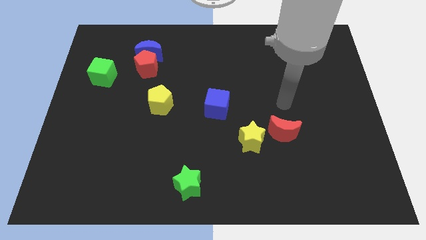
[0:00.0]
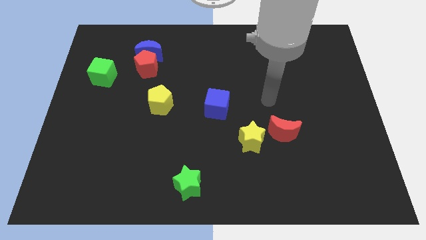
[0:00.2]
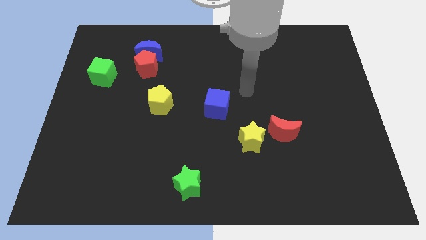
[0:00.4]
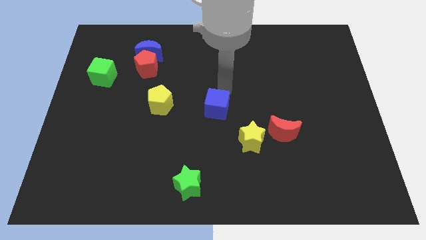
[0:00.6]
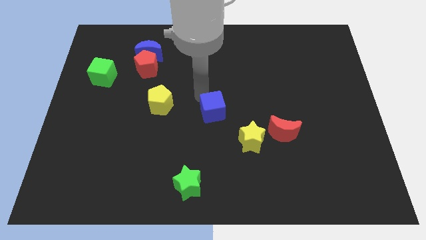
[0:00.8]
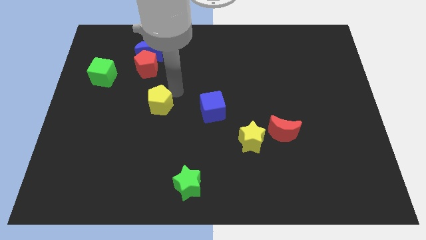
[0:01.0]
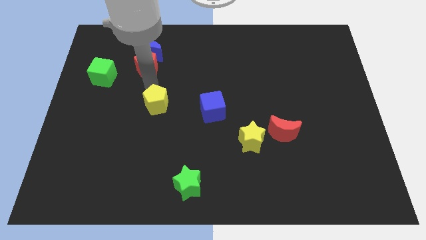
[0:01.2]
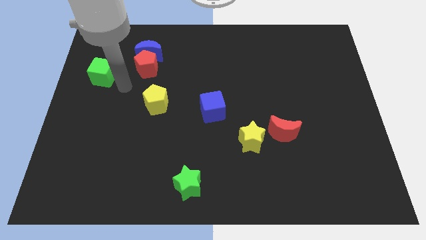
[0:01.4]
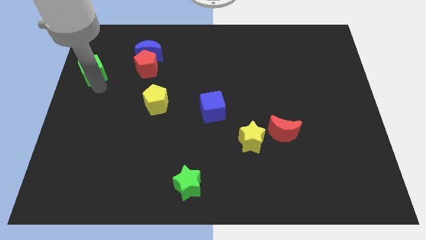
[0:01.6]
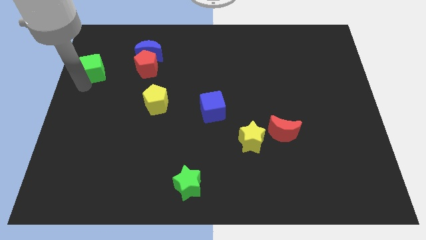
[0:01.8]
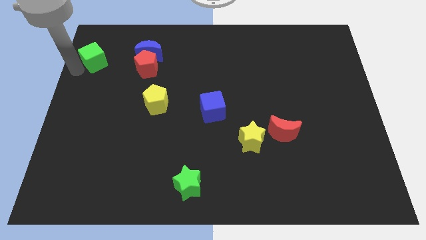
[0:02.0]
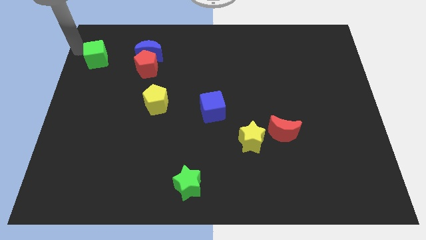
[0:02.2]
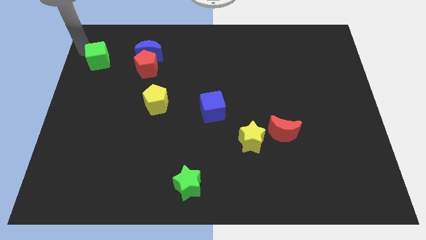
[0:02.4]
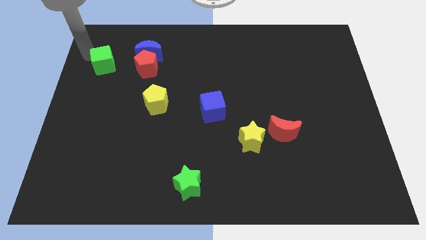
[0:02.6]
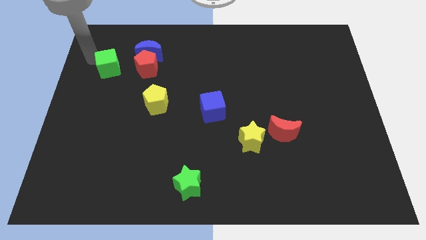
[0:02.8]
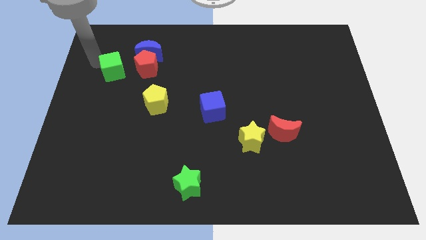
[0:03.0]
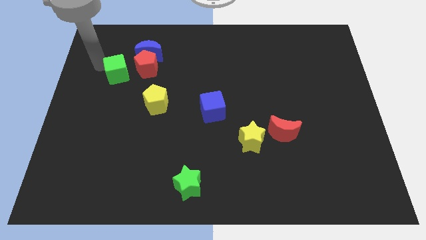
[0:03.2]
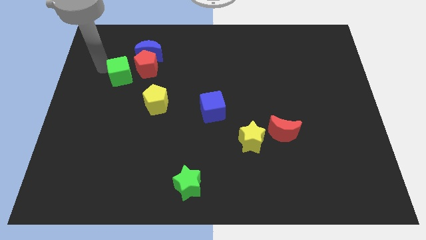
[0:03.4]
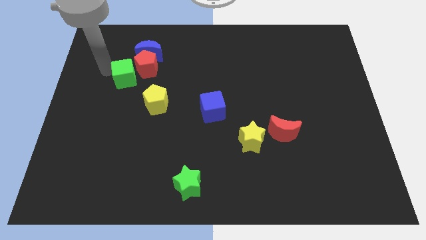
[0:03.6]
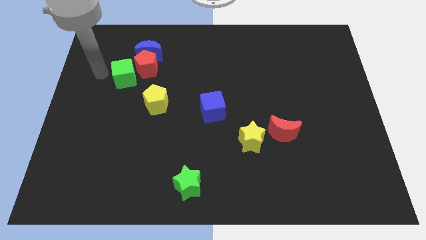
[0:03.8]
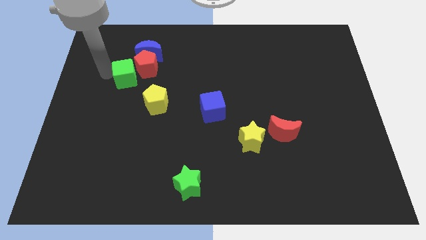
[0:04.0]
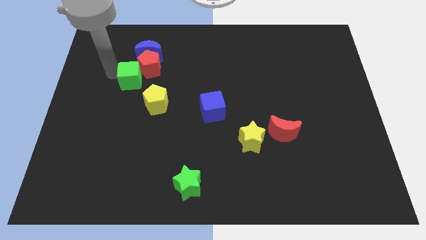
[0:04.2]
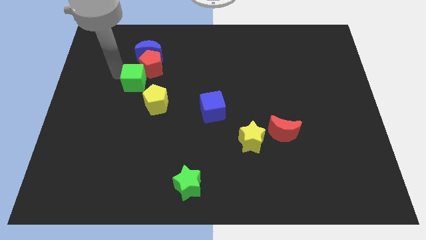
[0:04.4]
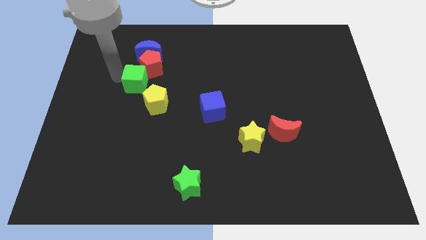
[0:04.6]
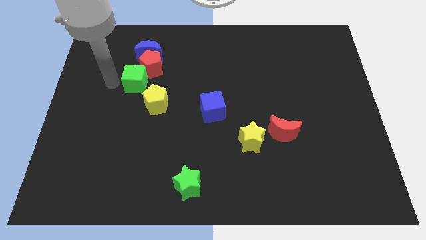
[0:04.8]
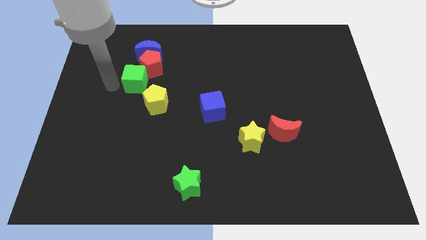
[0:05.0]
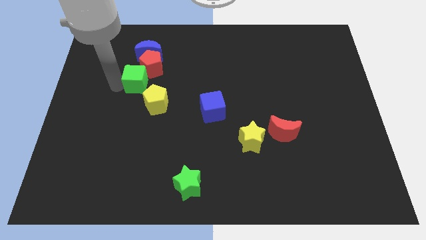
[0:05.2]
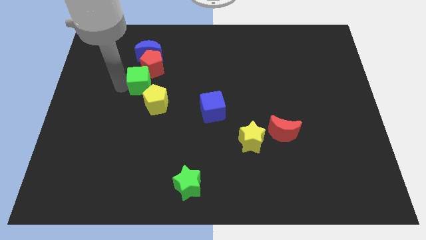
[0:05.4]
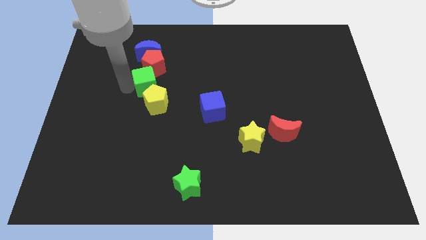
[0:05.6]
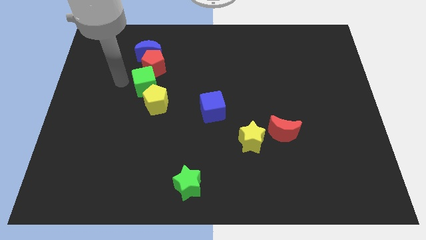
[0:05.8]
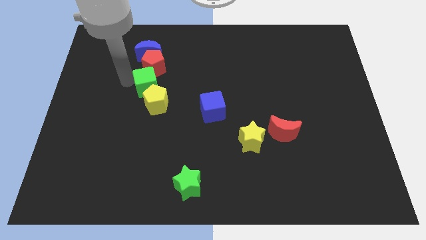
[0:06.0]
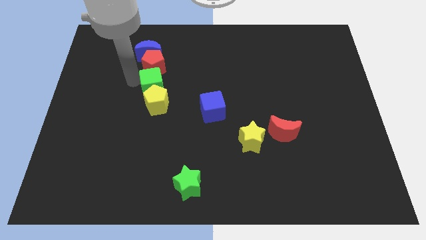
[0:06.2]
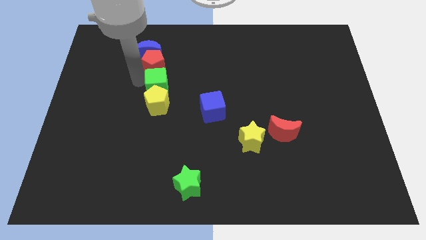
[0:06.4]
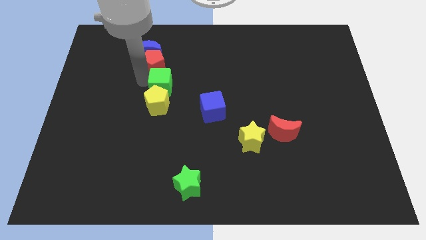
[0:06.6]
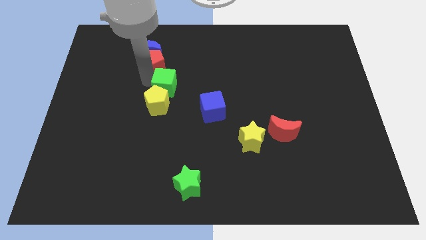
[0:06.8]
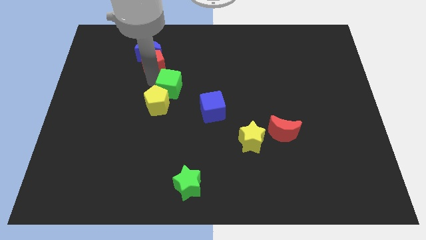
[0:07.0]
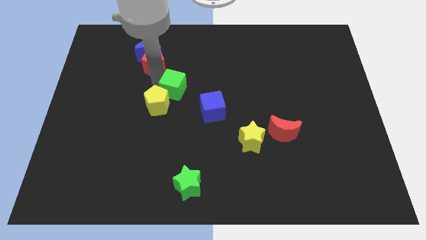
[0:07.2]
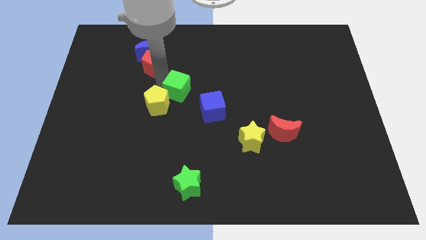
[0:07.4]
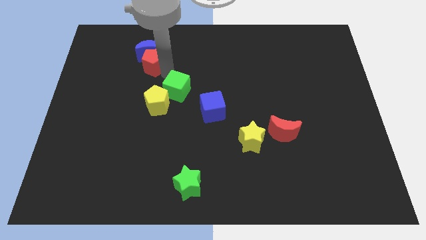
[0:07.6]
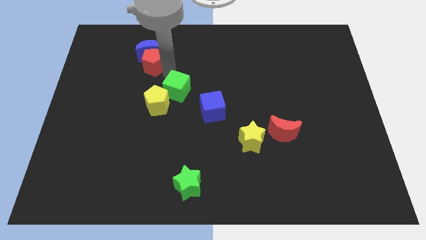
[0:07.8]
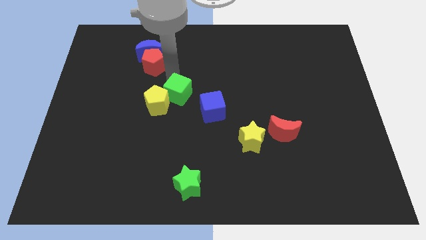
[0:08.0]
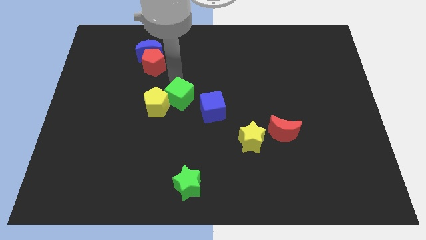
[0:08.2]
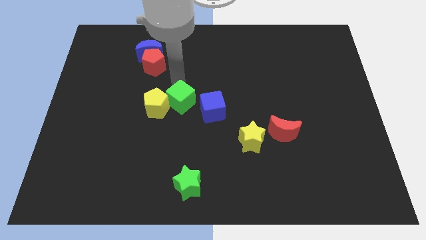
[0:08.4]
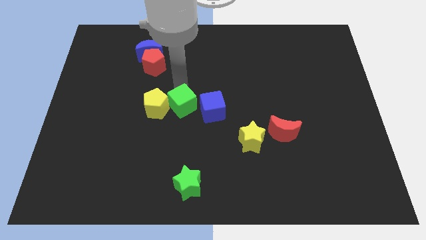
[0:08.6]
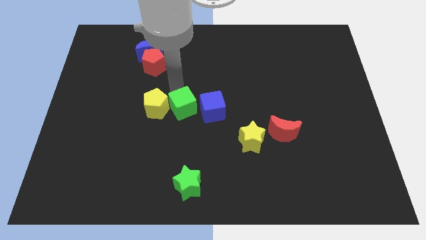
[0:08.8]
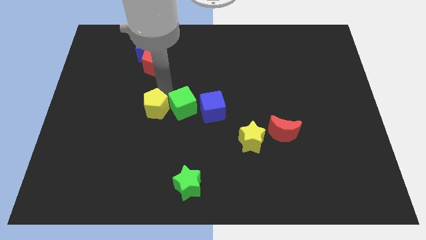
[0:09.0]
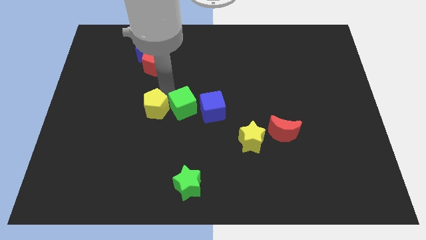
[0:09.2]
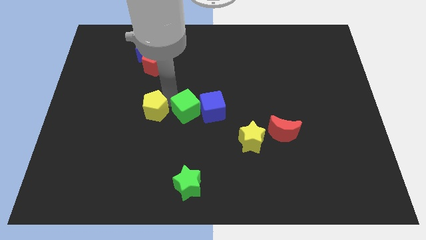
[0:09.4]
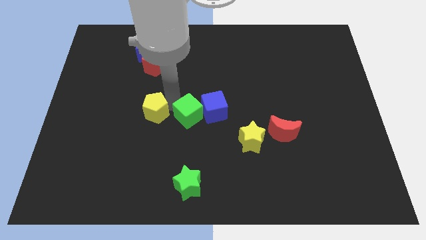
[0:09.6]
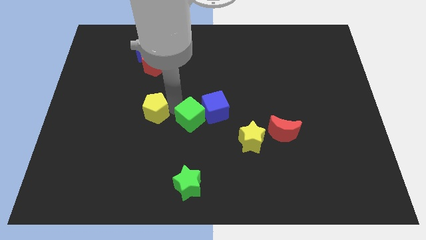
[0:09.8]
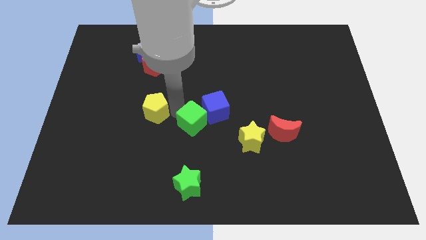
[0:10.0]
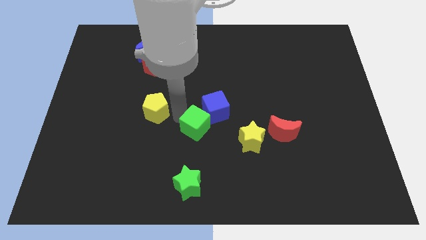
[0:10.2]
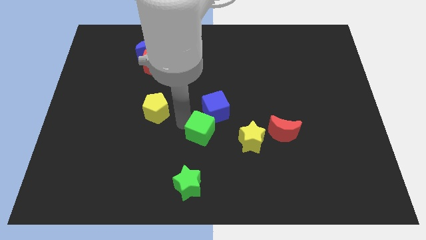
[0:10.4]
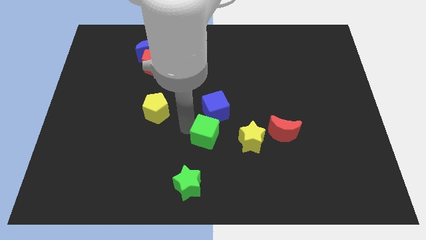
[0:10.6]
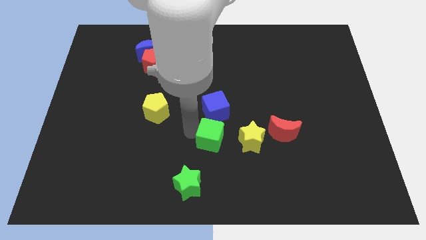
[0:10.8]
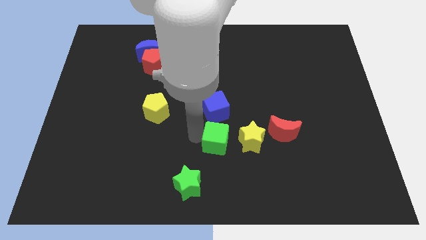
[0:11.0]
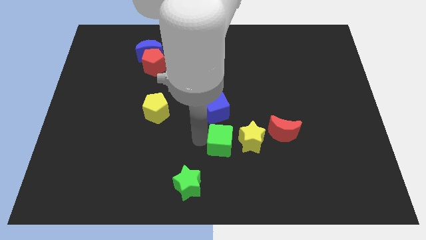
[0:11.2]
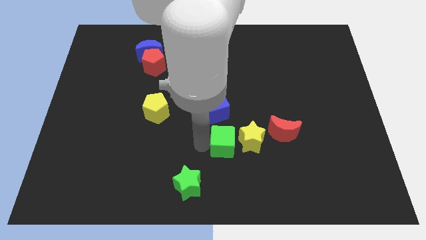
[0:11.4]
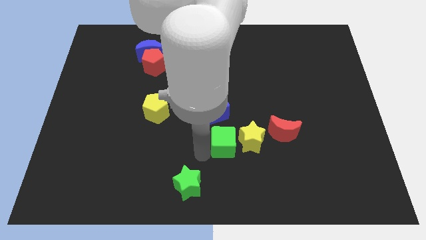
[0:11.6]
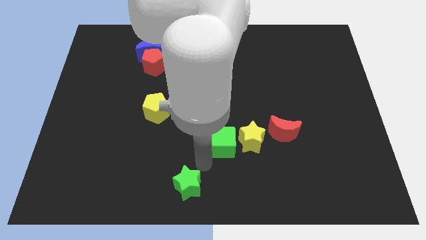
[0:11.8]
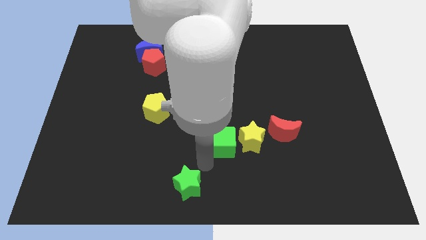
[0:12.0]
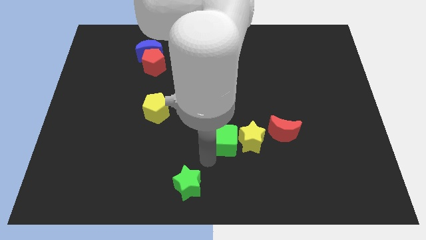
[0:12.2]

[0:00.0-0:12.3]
push the green cube to the yellow star

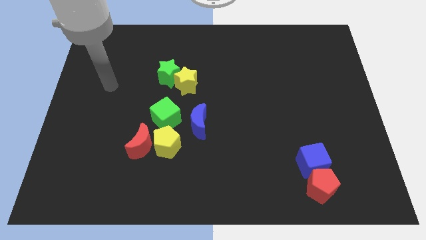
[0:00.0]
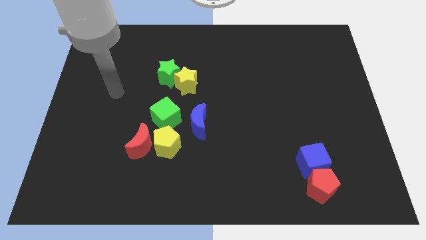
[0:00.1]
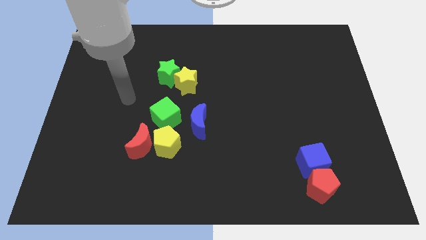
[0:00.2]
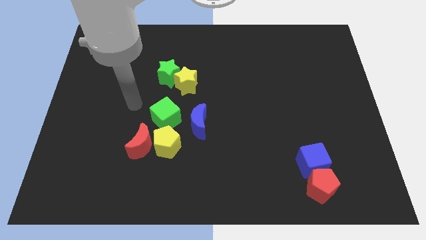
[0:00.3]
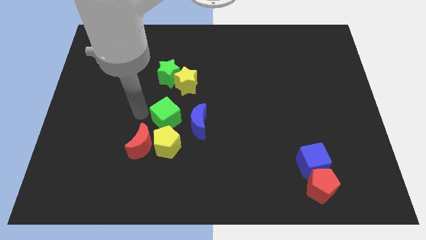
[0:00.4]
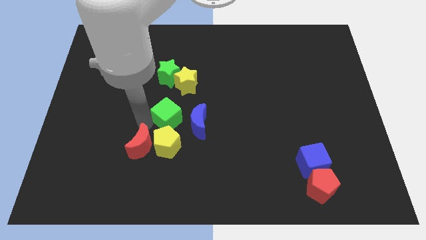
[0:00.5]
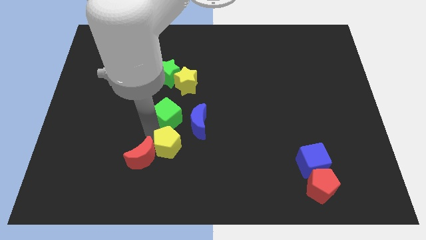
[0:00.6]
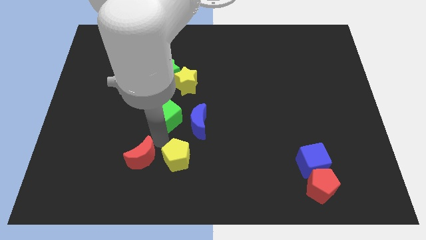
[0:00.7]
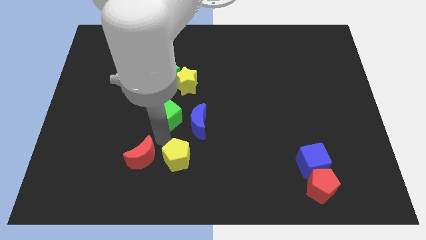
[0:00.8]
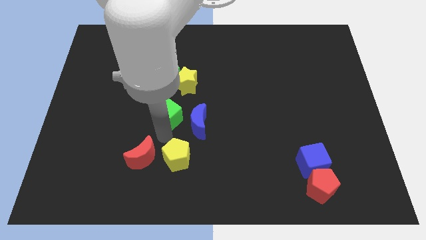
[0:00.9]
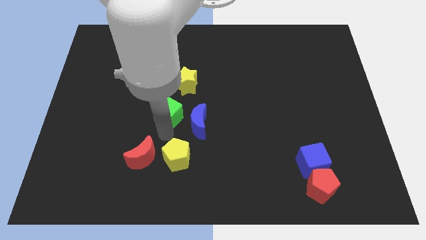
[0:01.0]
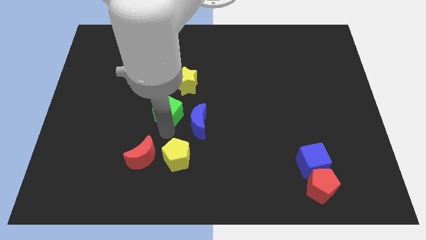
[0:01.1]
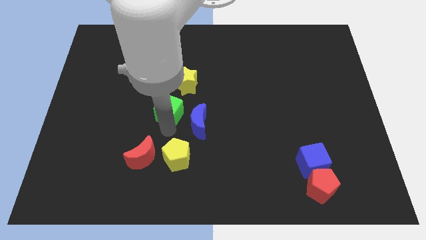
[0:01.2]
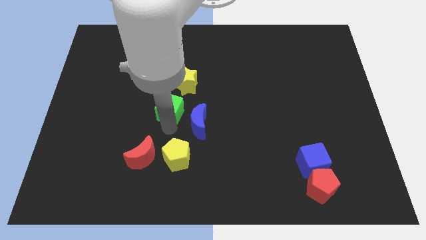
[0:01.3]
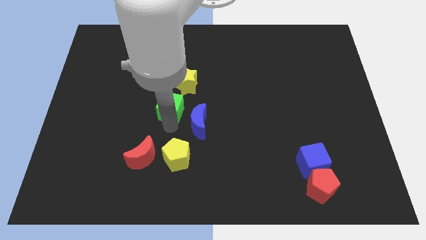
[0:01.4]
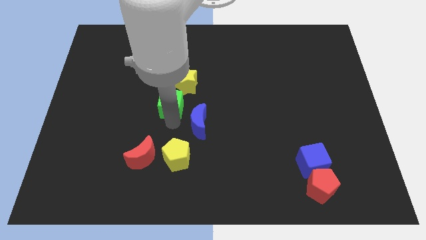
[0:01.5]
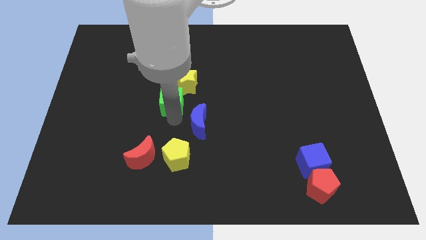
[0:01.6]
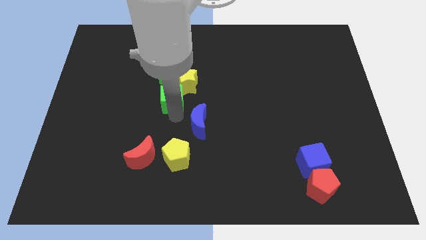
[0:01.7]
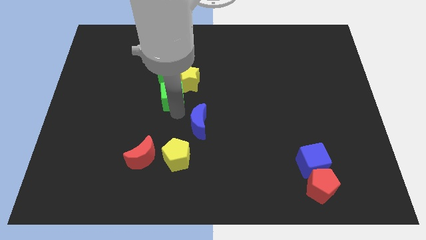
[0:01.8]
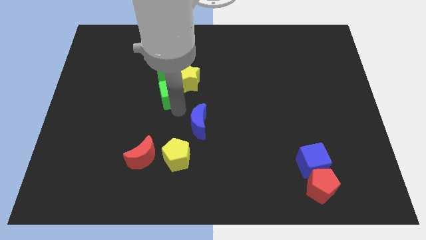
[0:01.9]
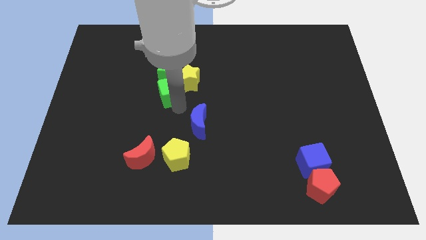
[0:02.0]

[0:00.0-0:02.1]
slide the green cube close to the green star

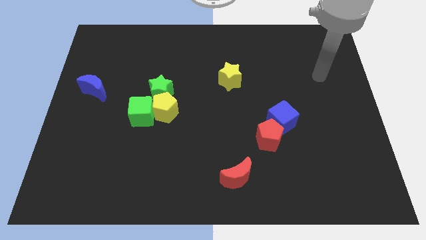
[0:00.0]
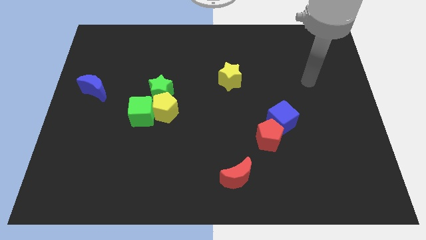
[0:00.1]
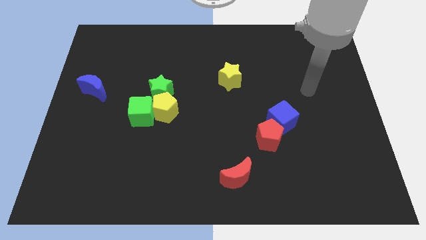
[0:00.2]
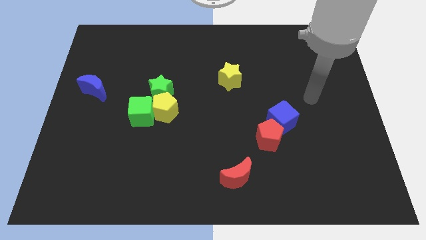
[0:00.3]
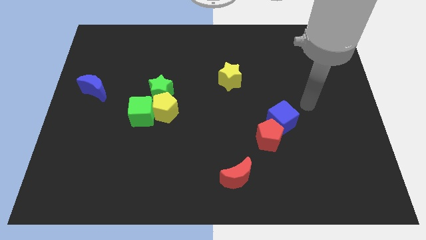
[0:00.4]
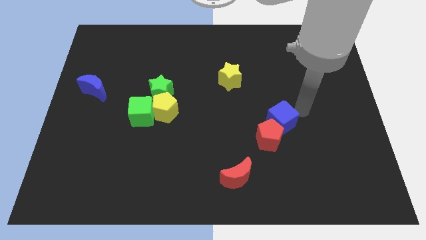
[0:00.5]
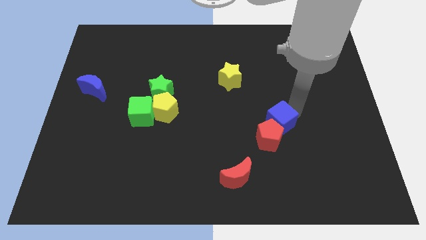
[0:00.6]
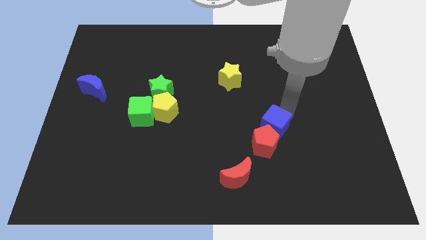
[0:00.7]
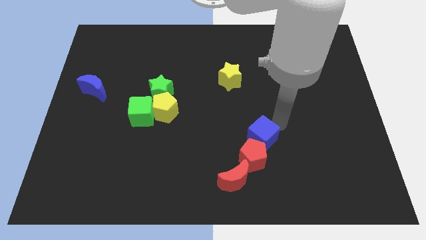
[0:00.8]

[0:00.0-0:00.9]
slide the red pentagon close to the red moon
